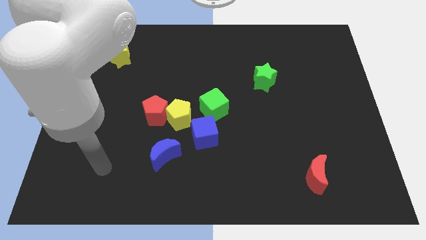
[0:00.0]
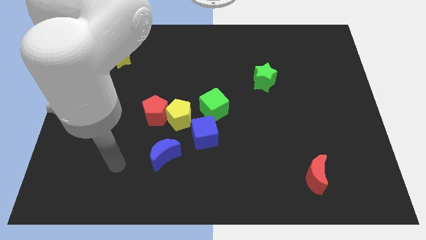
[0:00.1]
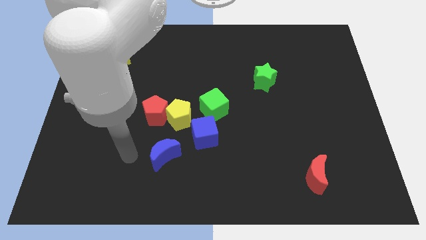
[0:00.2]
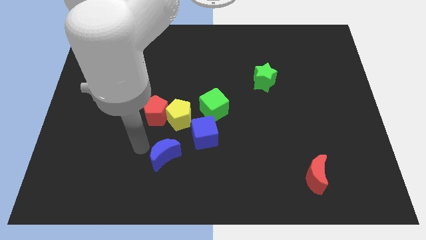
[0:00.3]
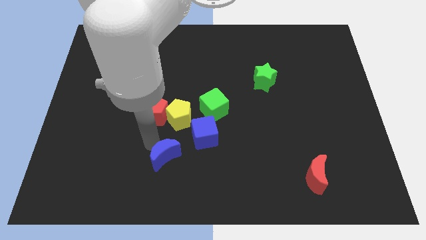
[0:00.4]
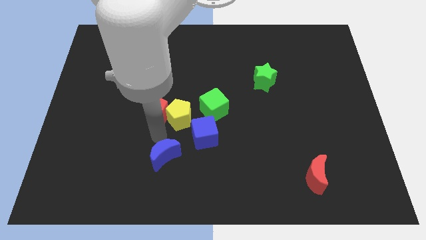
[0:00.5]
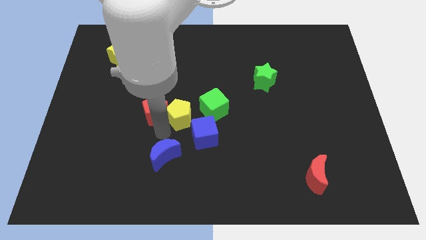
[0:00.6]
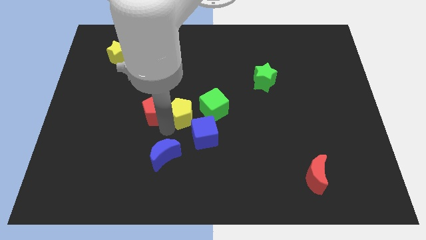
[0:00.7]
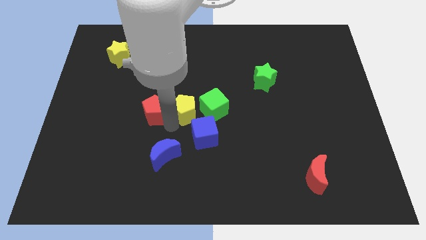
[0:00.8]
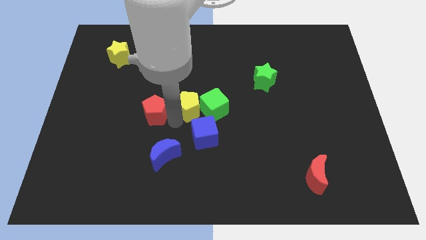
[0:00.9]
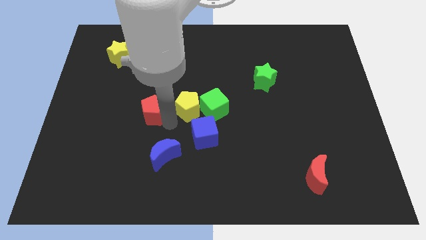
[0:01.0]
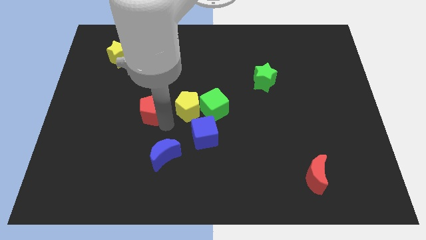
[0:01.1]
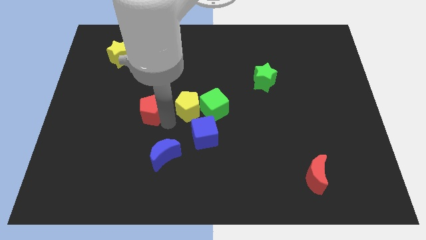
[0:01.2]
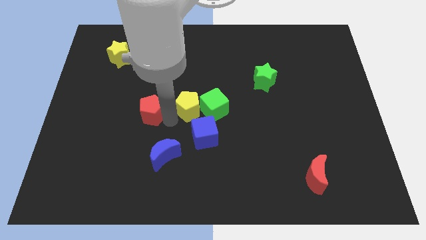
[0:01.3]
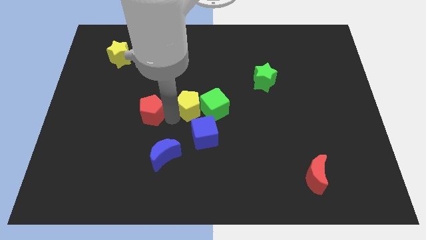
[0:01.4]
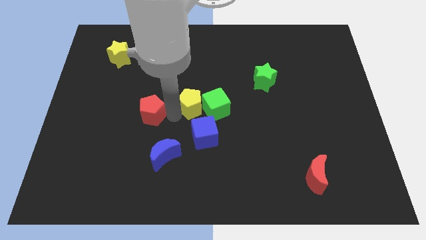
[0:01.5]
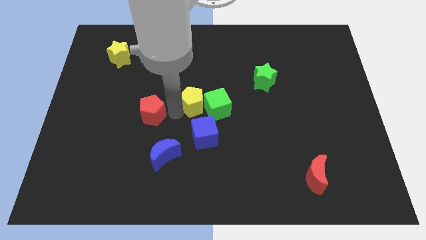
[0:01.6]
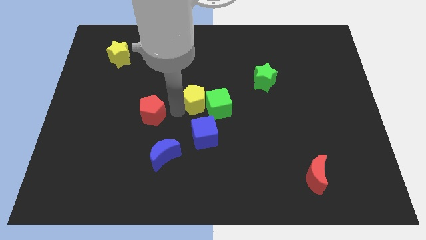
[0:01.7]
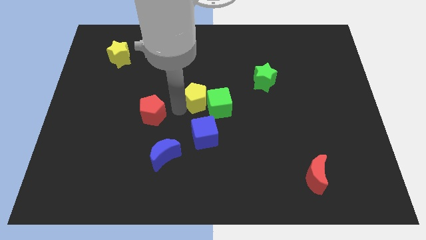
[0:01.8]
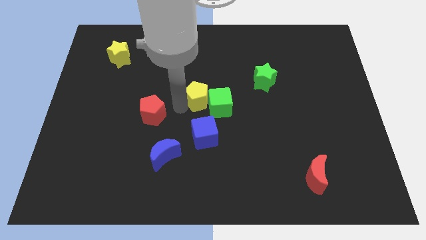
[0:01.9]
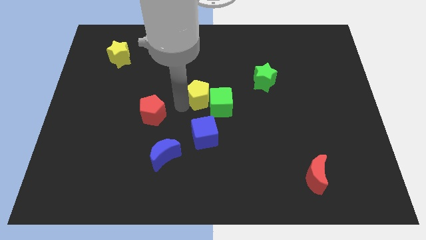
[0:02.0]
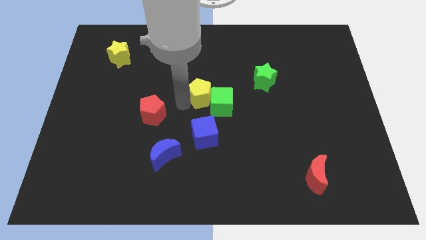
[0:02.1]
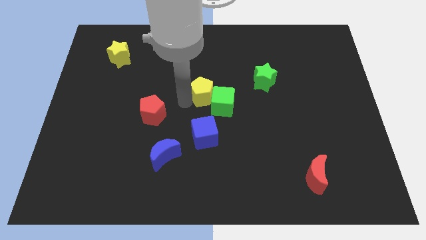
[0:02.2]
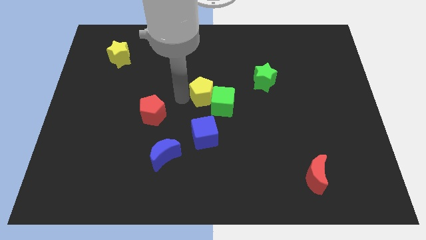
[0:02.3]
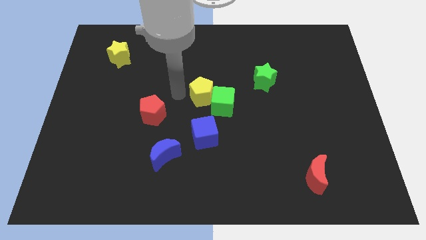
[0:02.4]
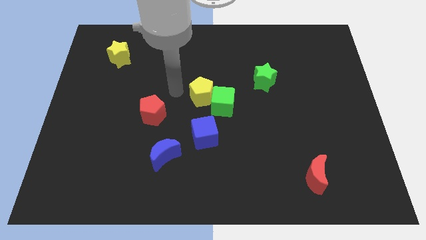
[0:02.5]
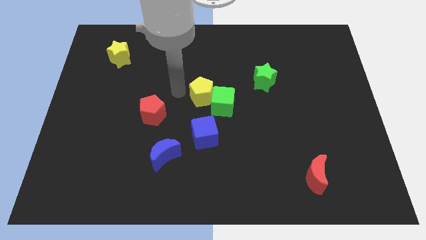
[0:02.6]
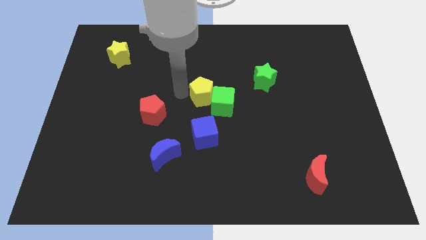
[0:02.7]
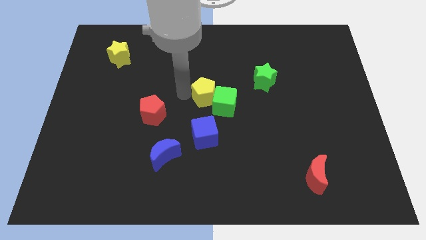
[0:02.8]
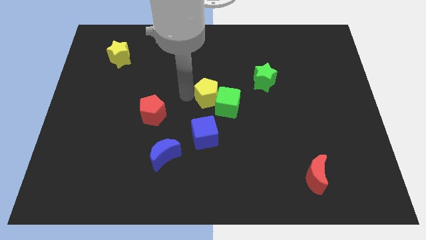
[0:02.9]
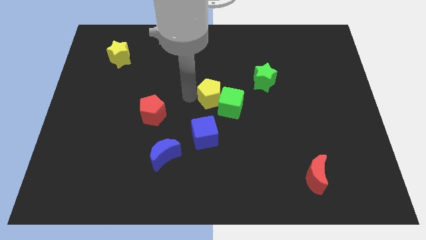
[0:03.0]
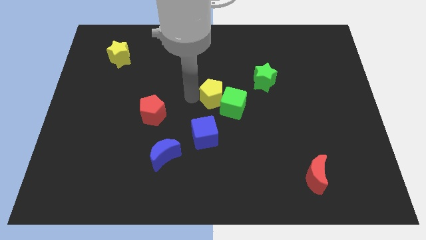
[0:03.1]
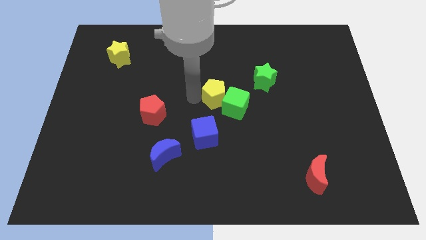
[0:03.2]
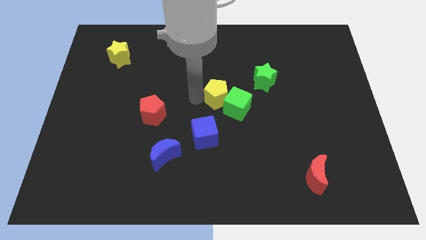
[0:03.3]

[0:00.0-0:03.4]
slightly move the yellow pentagon to the right

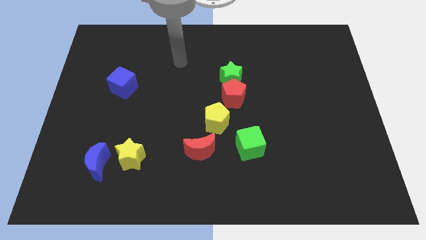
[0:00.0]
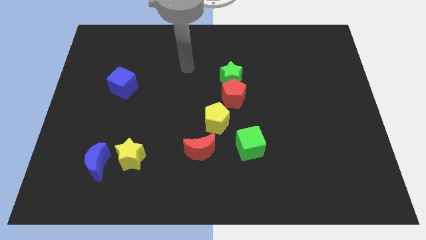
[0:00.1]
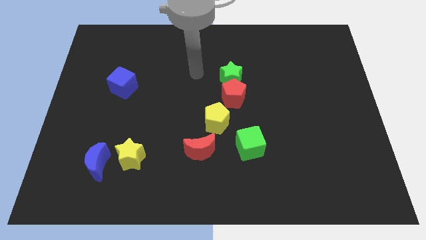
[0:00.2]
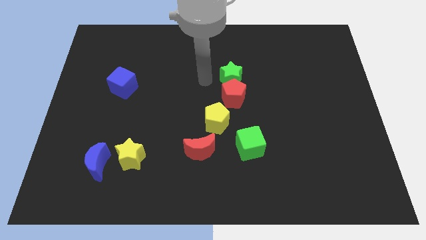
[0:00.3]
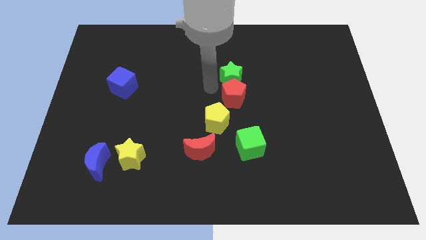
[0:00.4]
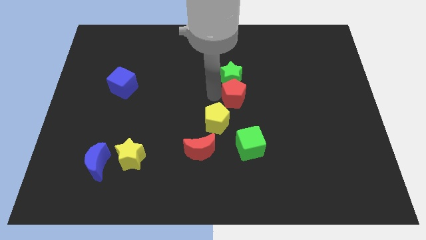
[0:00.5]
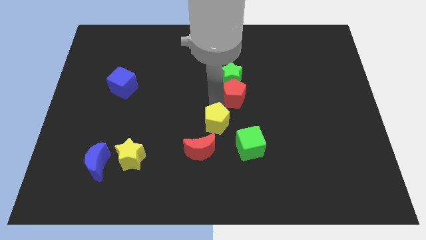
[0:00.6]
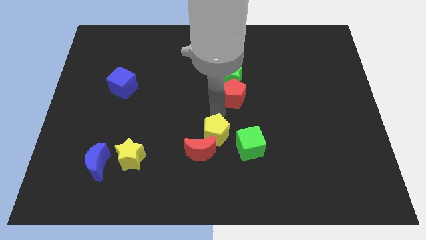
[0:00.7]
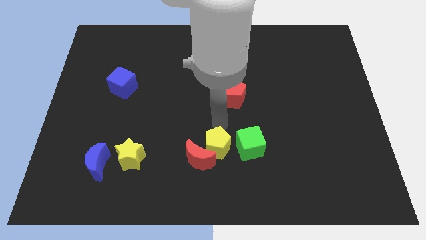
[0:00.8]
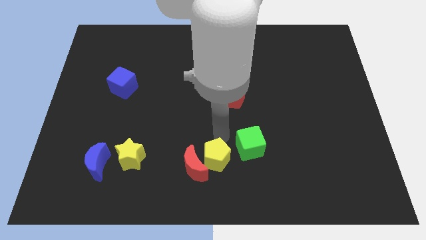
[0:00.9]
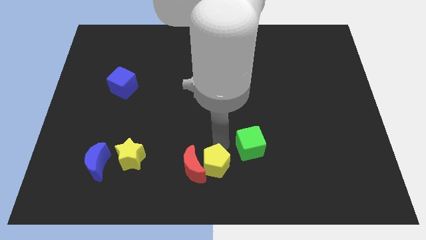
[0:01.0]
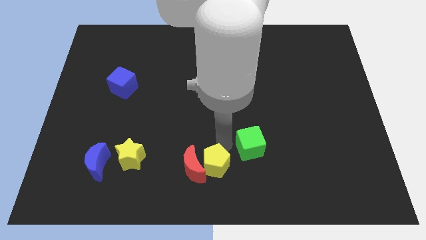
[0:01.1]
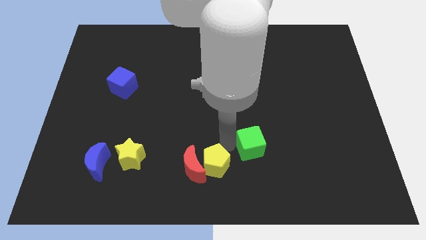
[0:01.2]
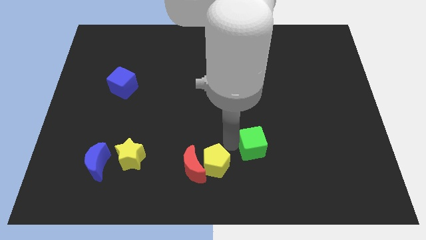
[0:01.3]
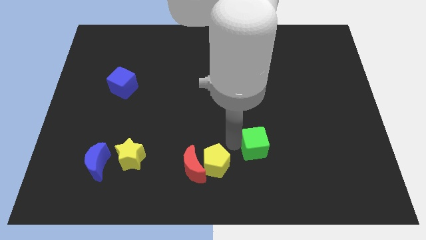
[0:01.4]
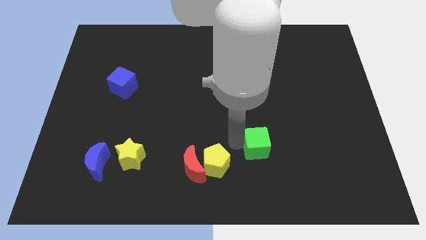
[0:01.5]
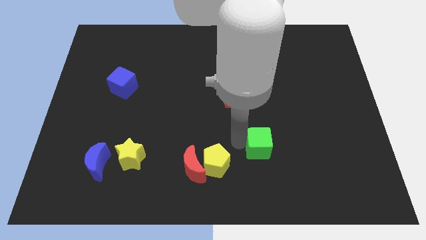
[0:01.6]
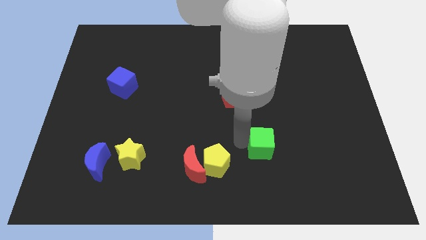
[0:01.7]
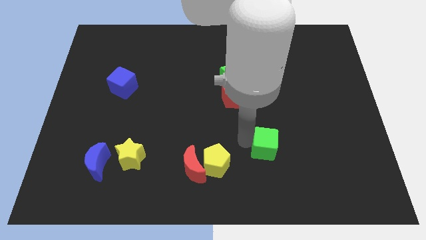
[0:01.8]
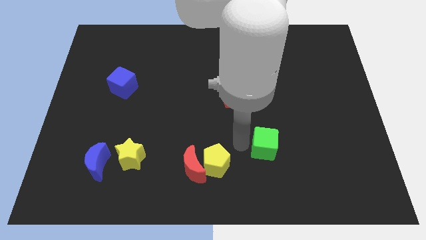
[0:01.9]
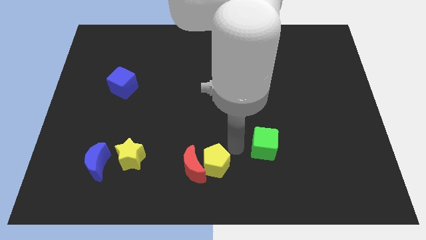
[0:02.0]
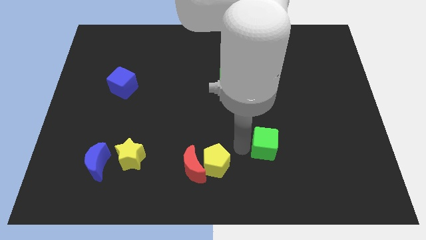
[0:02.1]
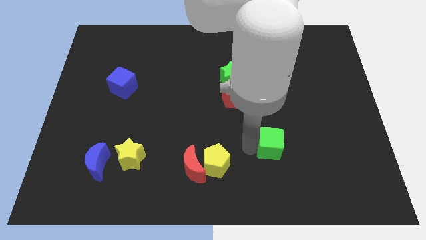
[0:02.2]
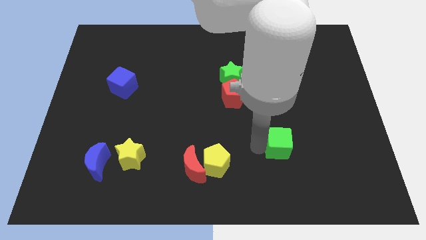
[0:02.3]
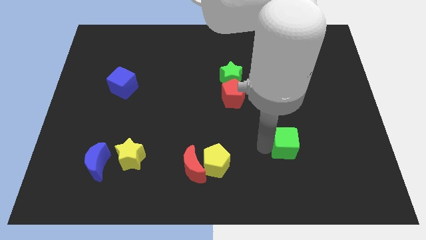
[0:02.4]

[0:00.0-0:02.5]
slightly move the green cube to the right

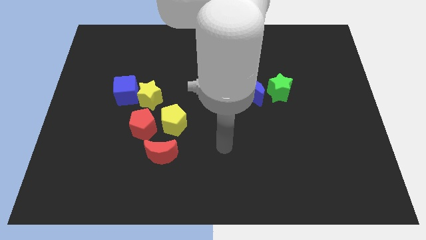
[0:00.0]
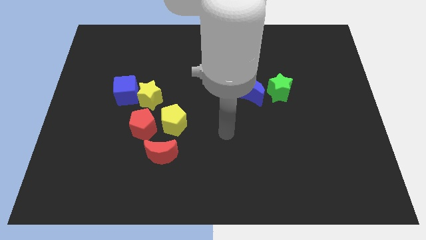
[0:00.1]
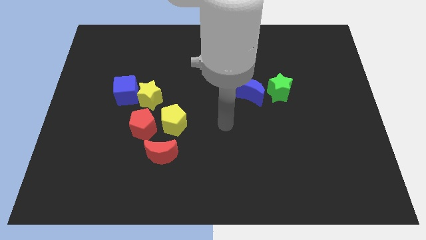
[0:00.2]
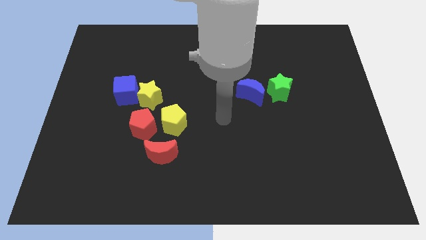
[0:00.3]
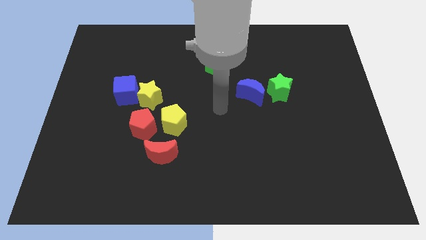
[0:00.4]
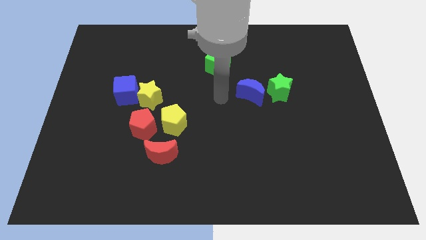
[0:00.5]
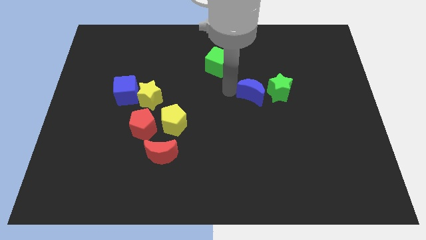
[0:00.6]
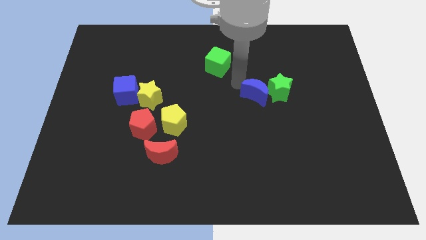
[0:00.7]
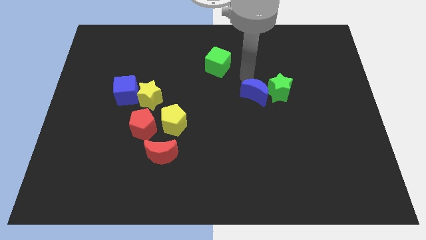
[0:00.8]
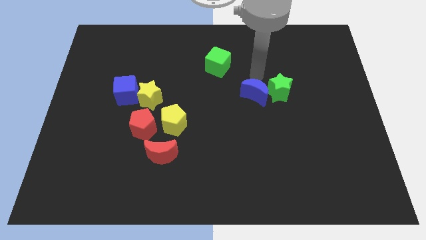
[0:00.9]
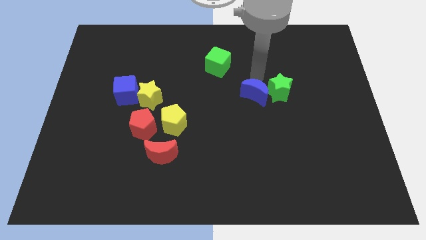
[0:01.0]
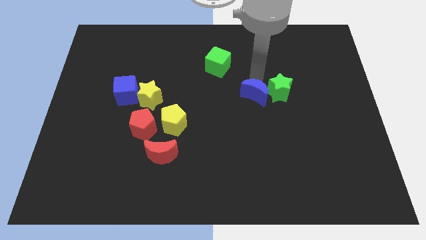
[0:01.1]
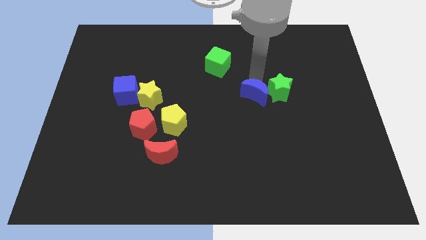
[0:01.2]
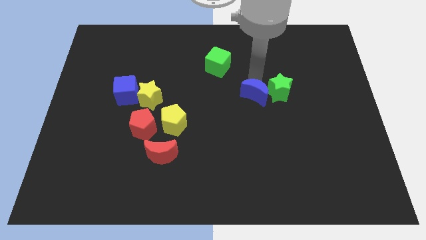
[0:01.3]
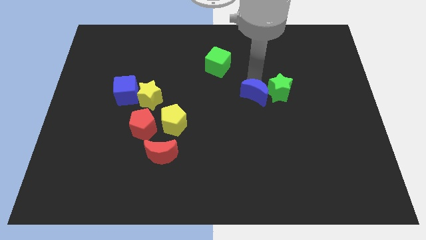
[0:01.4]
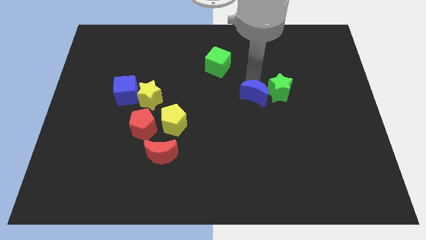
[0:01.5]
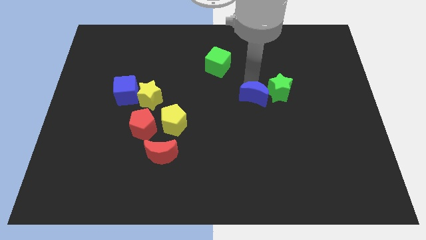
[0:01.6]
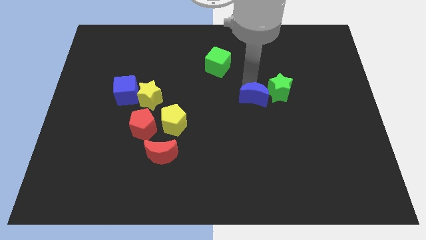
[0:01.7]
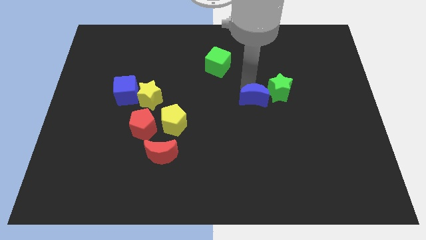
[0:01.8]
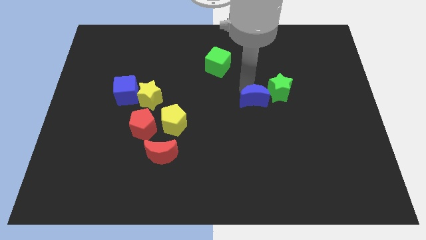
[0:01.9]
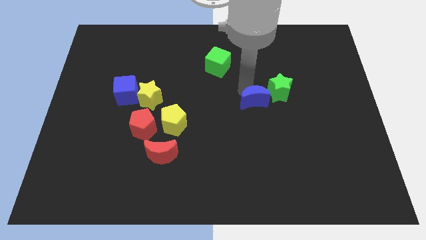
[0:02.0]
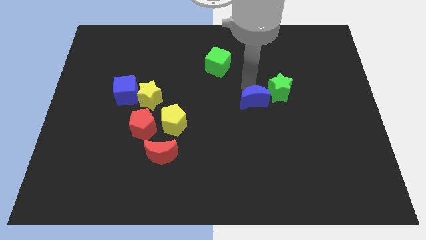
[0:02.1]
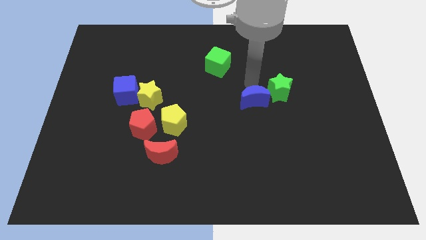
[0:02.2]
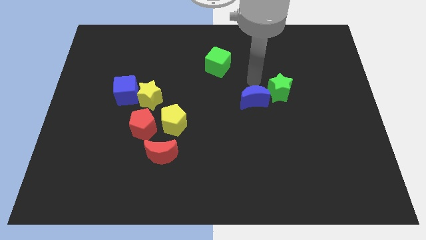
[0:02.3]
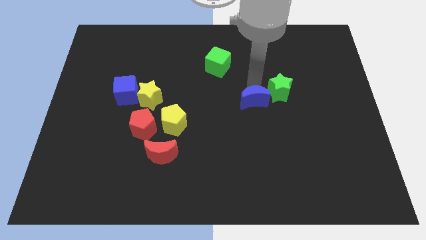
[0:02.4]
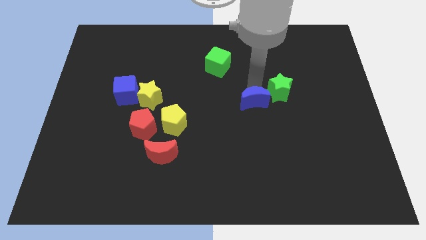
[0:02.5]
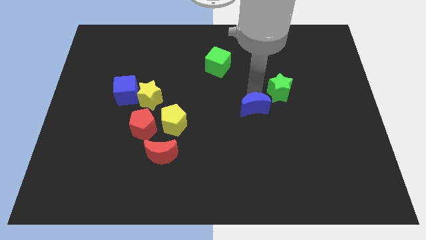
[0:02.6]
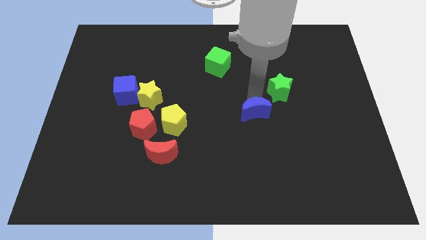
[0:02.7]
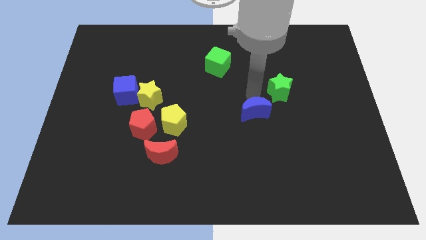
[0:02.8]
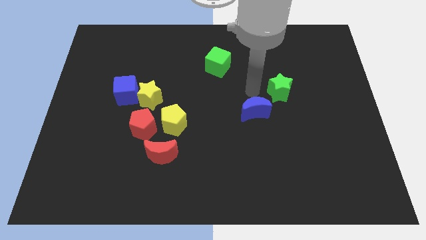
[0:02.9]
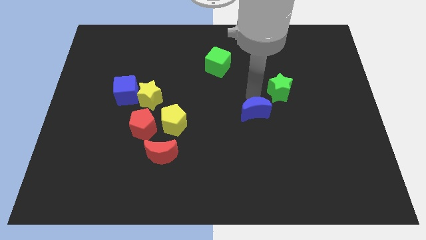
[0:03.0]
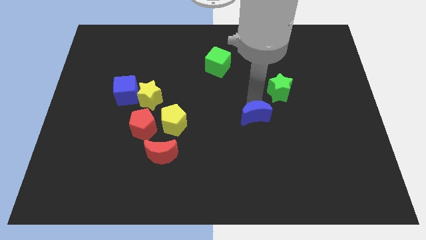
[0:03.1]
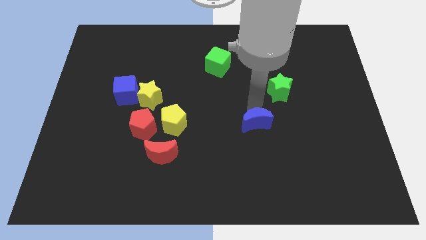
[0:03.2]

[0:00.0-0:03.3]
slide the blue moon downwards slightly
